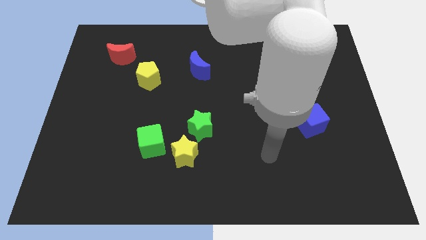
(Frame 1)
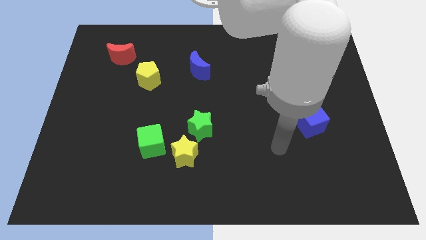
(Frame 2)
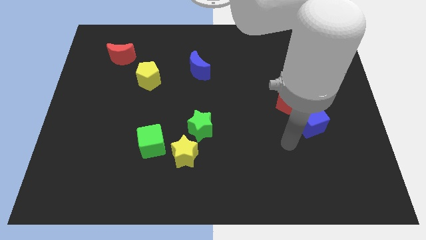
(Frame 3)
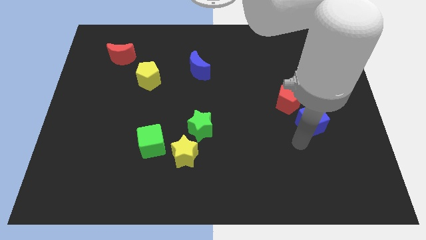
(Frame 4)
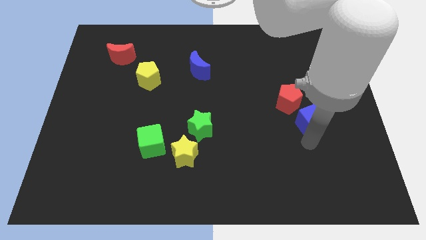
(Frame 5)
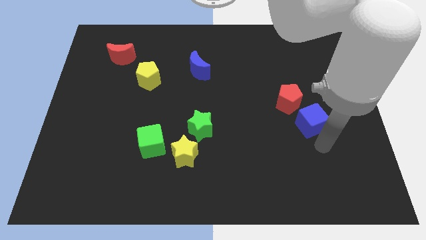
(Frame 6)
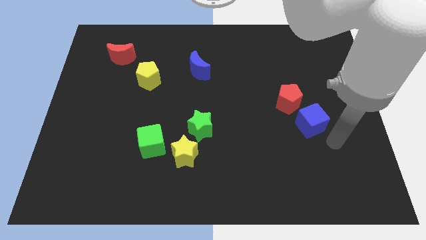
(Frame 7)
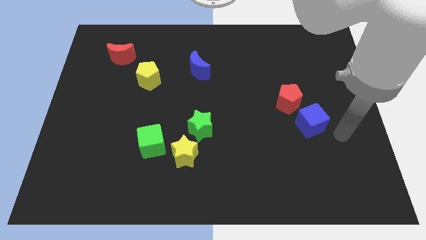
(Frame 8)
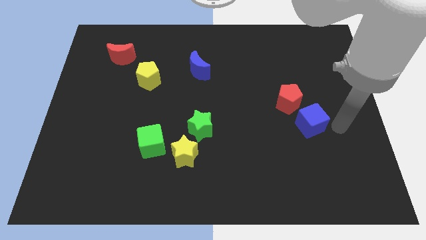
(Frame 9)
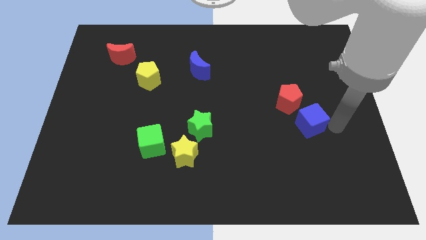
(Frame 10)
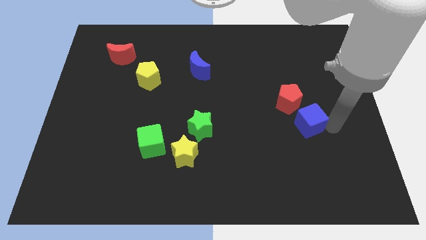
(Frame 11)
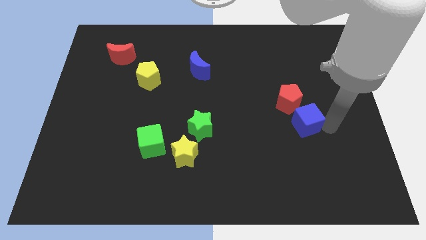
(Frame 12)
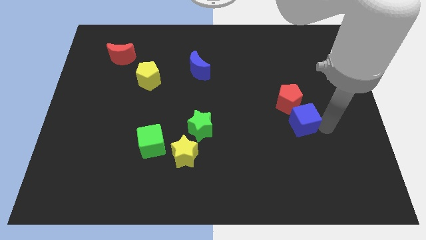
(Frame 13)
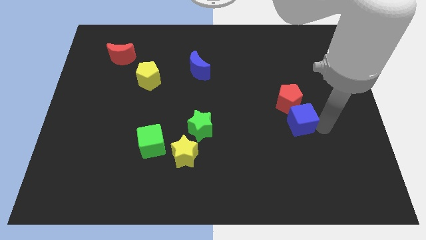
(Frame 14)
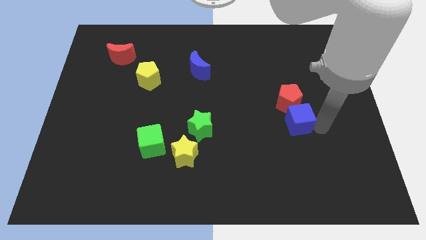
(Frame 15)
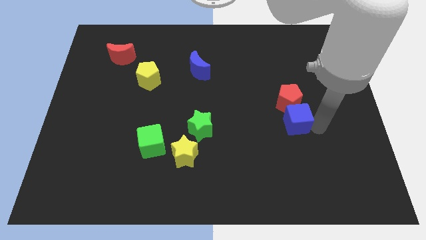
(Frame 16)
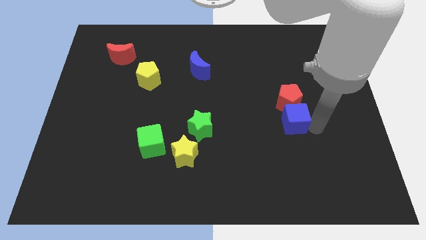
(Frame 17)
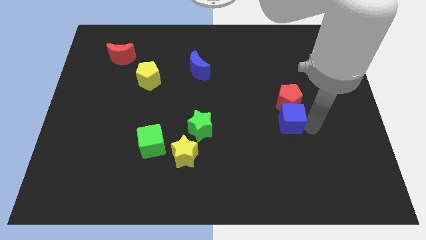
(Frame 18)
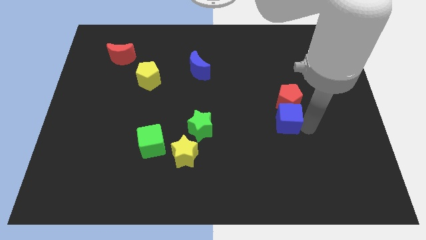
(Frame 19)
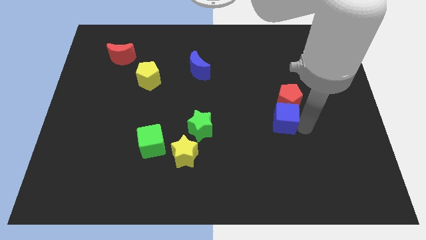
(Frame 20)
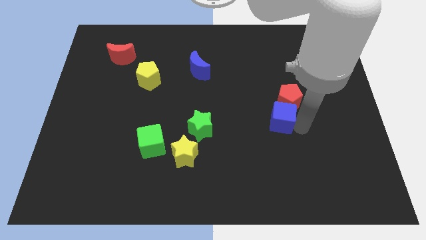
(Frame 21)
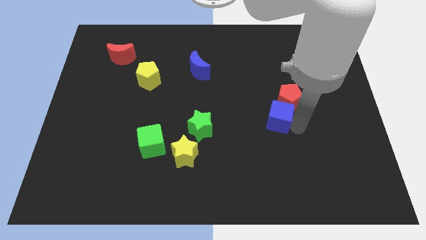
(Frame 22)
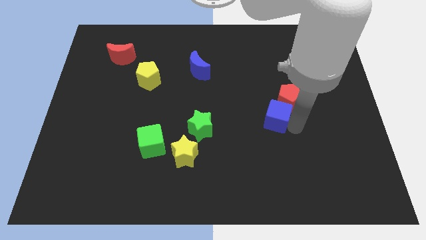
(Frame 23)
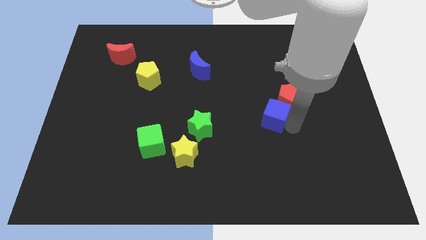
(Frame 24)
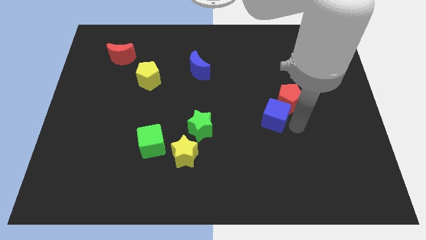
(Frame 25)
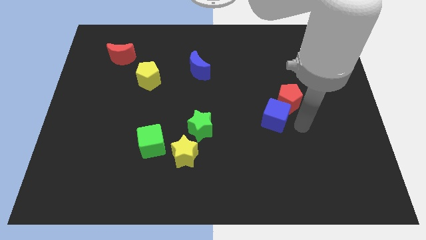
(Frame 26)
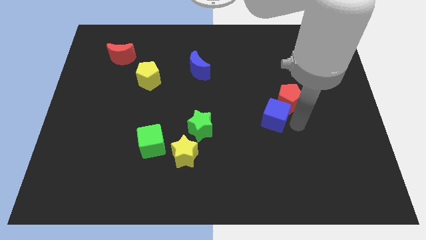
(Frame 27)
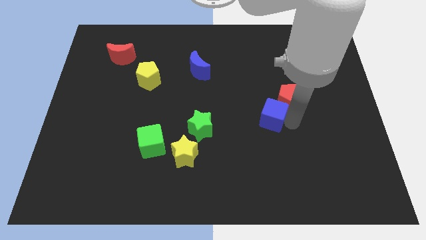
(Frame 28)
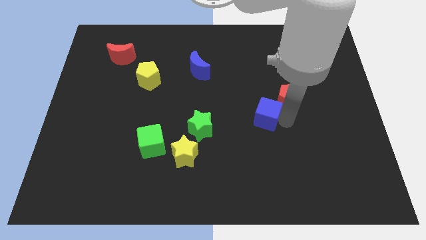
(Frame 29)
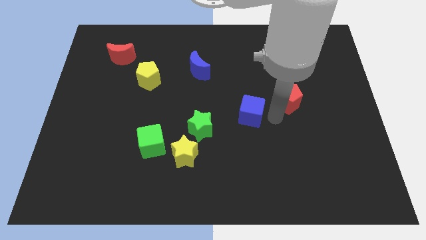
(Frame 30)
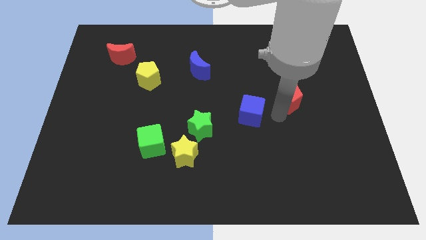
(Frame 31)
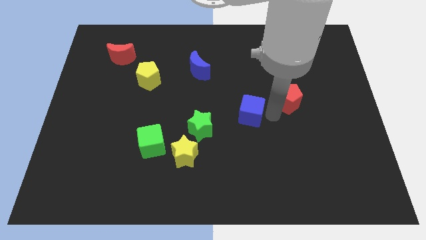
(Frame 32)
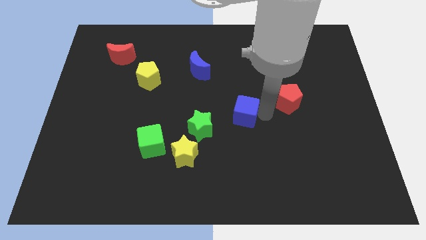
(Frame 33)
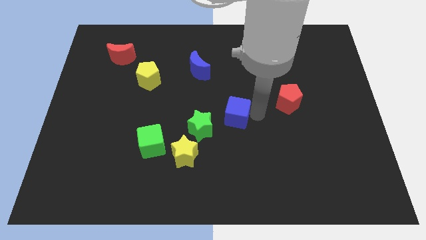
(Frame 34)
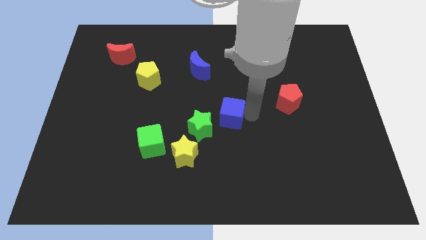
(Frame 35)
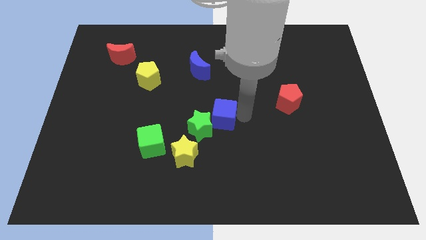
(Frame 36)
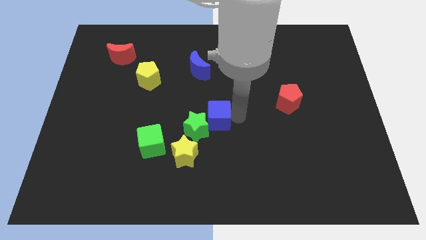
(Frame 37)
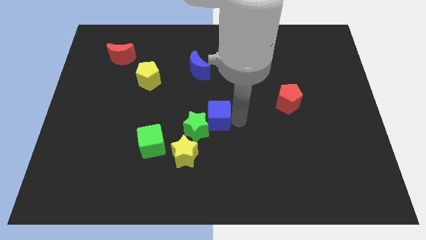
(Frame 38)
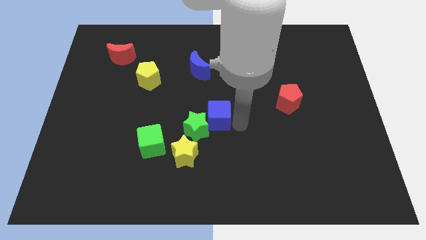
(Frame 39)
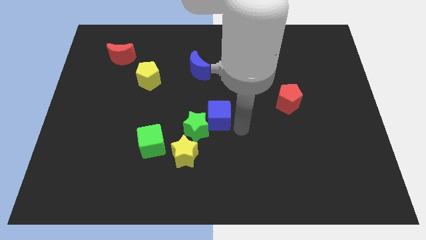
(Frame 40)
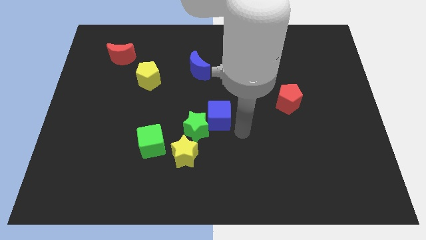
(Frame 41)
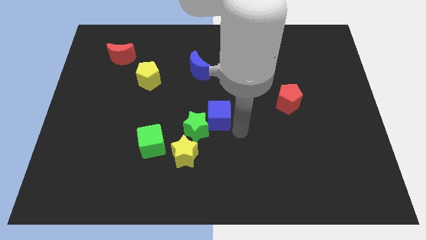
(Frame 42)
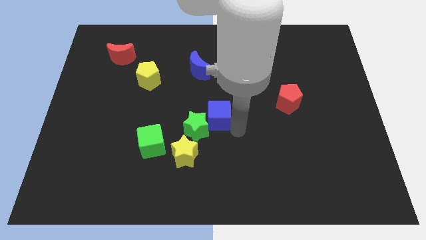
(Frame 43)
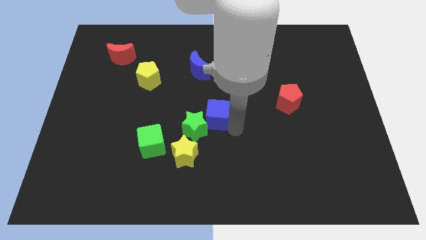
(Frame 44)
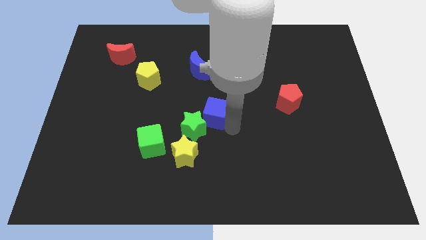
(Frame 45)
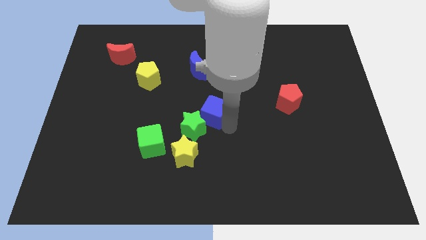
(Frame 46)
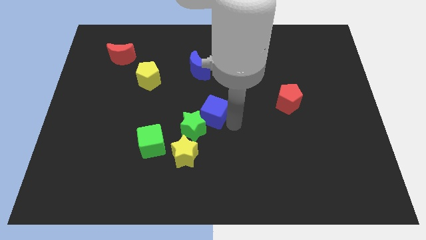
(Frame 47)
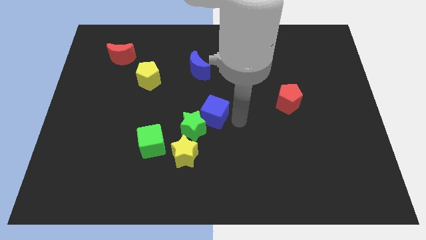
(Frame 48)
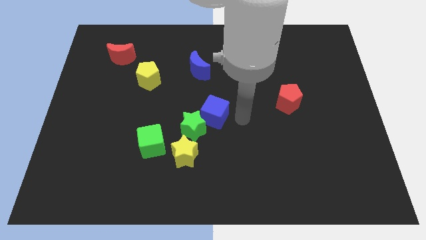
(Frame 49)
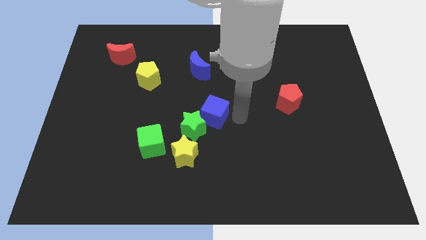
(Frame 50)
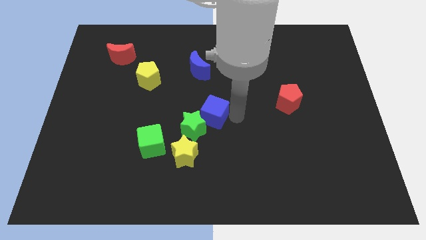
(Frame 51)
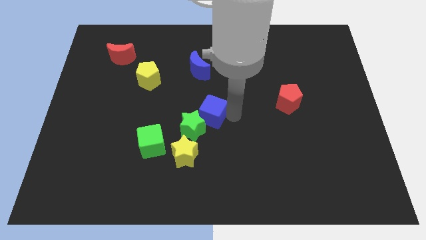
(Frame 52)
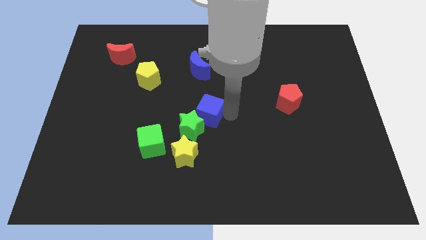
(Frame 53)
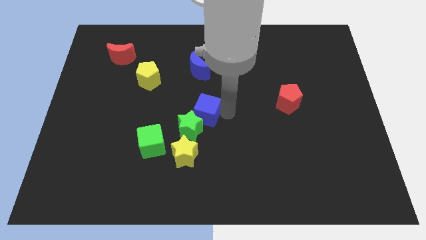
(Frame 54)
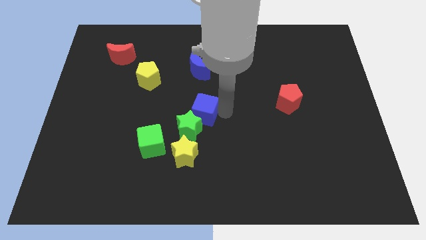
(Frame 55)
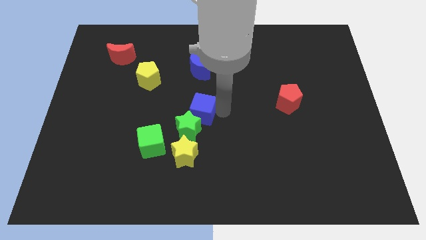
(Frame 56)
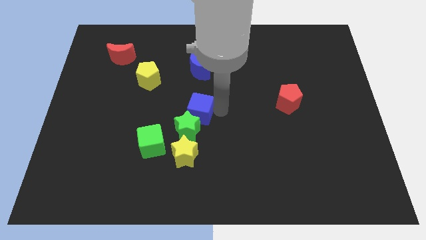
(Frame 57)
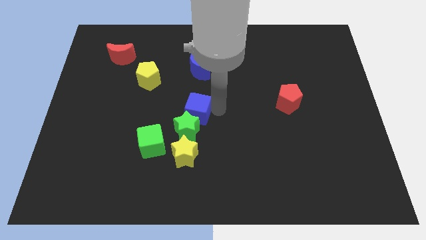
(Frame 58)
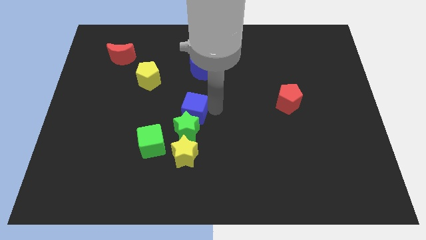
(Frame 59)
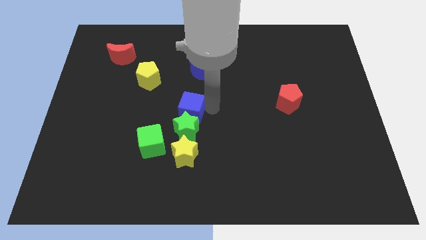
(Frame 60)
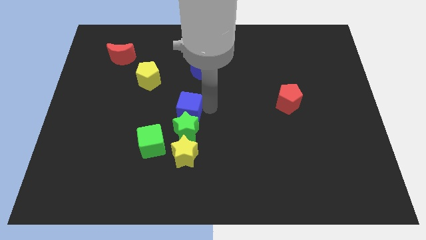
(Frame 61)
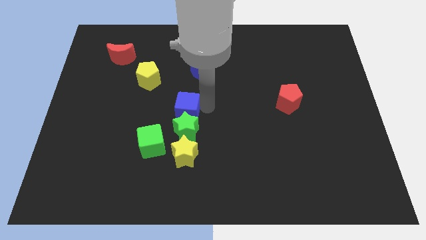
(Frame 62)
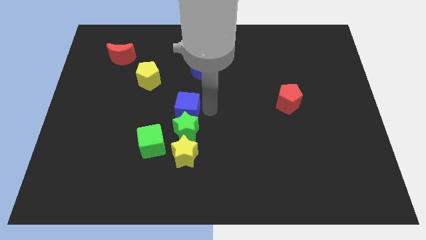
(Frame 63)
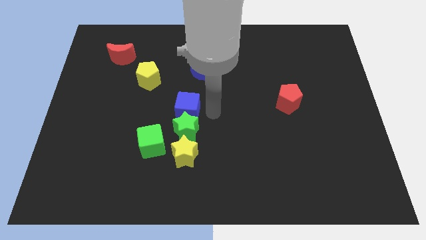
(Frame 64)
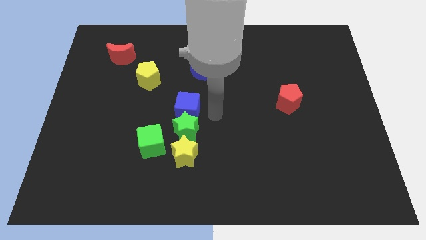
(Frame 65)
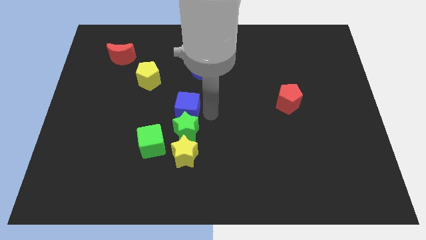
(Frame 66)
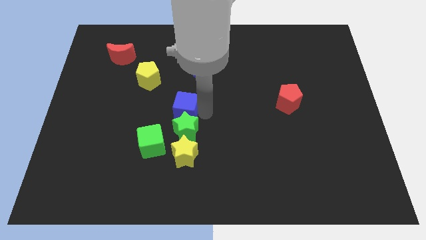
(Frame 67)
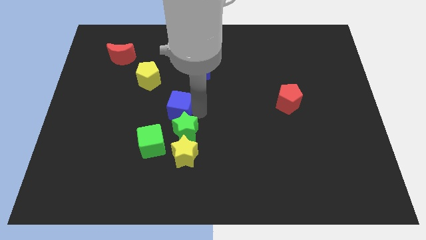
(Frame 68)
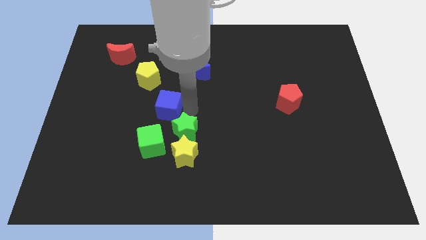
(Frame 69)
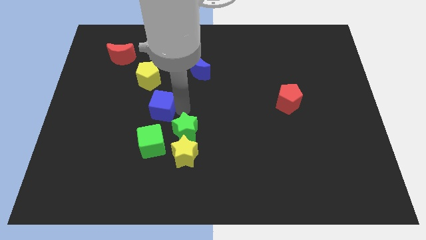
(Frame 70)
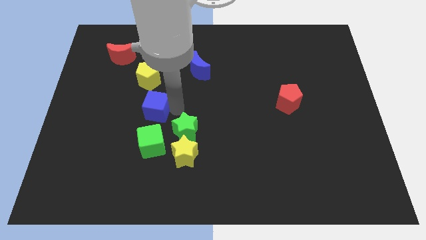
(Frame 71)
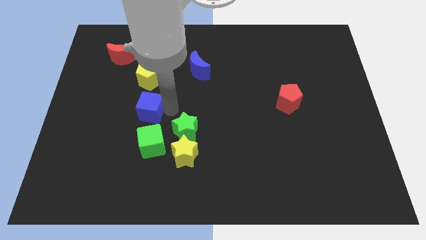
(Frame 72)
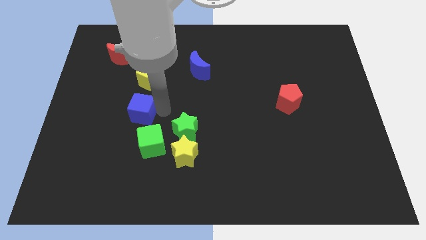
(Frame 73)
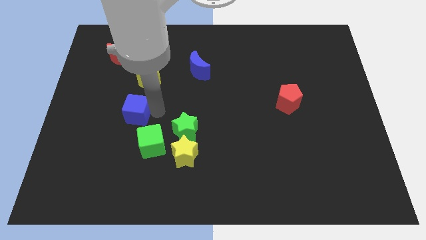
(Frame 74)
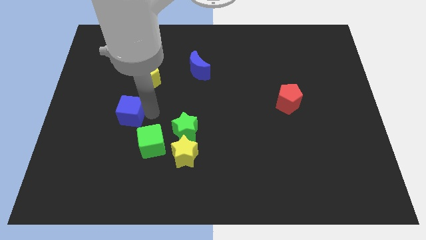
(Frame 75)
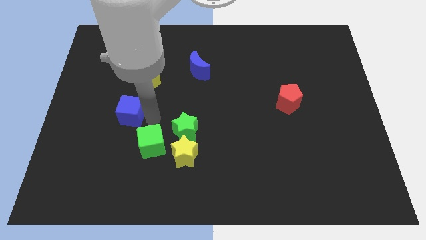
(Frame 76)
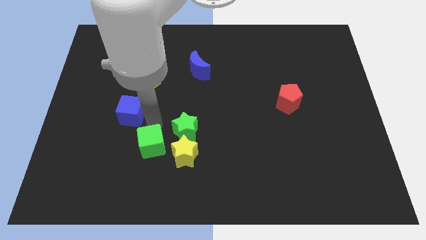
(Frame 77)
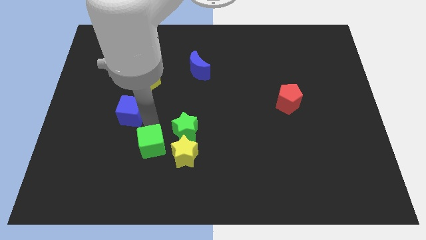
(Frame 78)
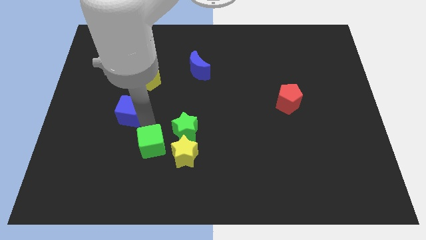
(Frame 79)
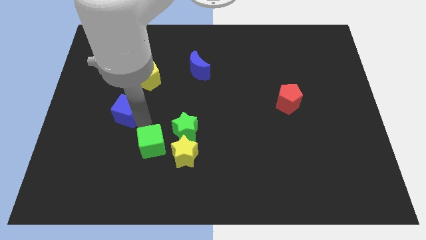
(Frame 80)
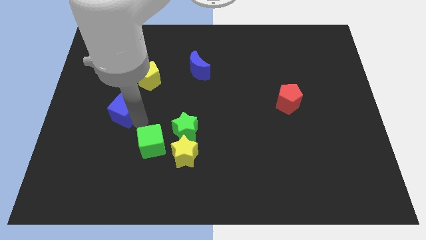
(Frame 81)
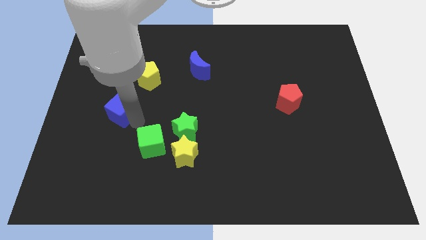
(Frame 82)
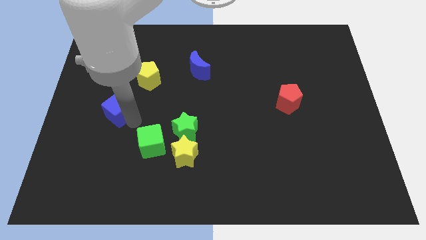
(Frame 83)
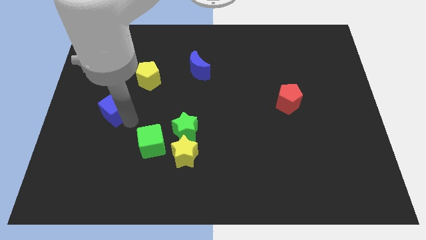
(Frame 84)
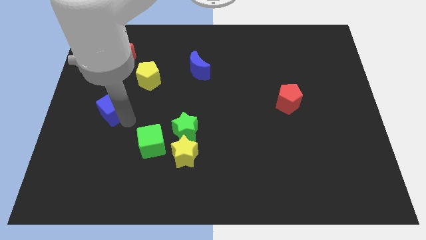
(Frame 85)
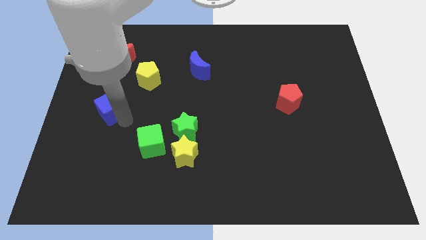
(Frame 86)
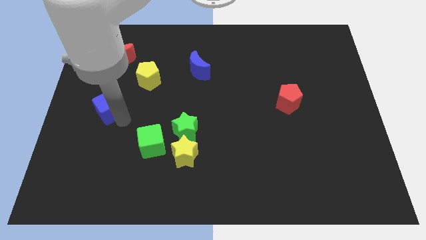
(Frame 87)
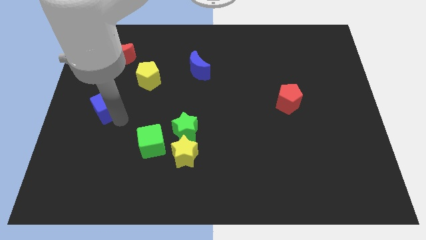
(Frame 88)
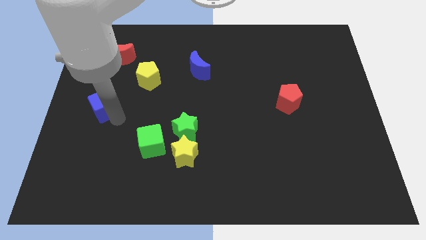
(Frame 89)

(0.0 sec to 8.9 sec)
move the blue cube to the left side of the board
